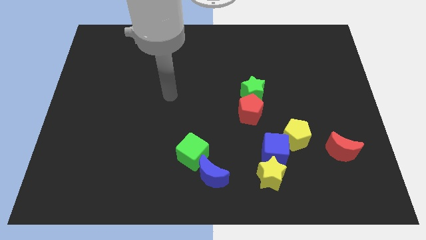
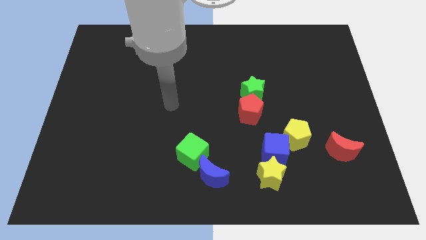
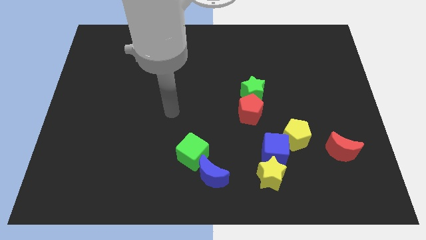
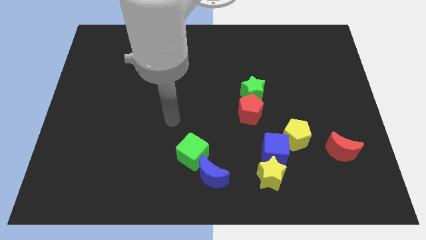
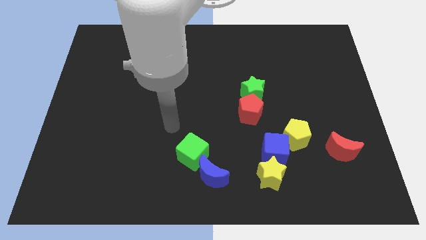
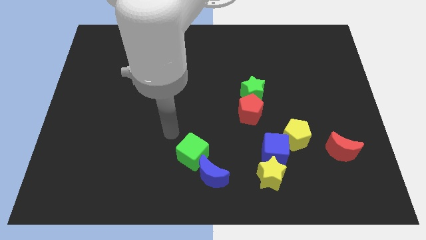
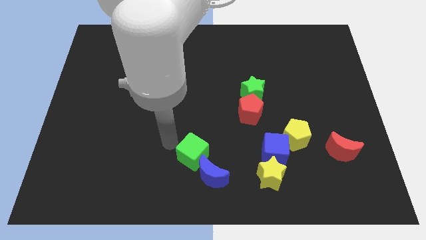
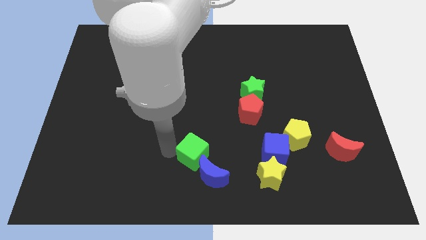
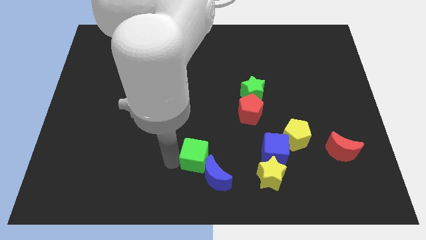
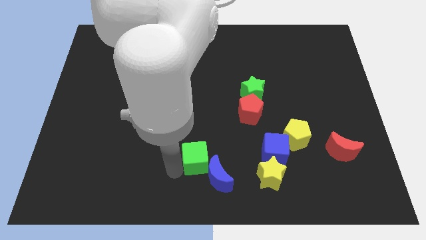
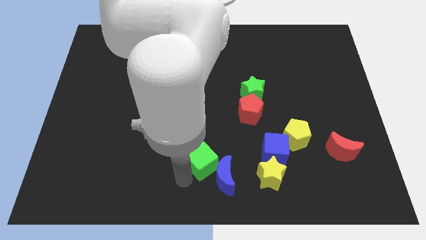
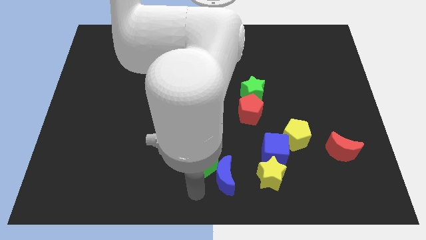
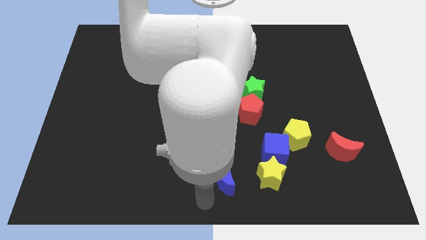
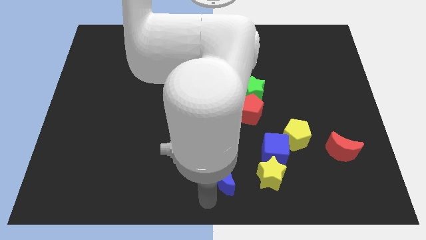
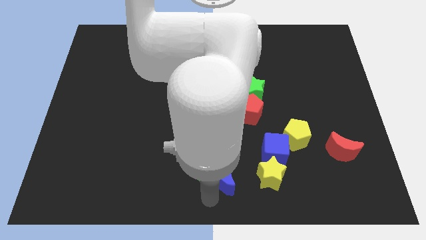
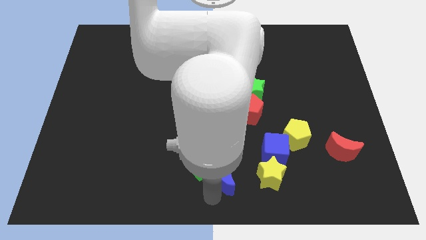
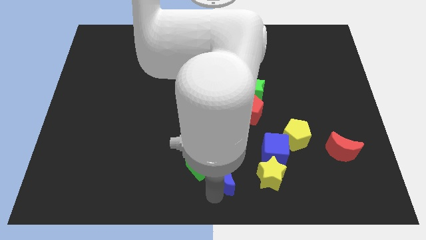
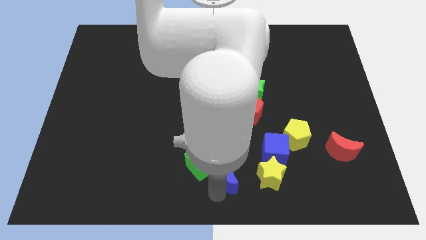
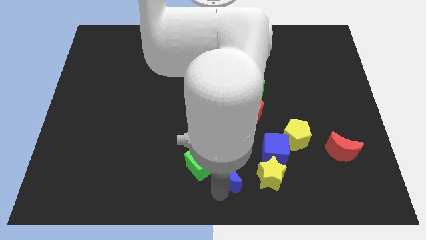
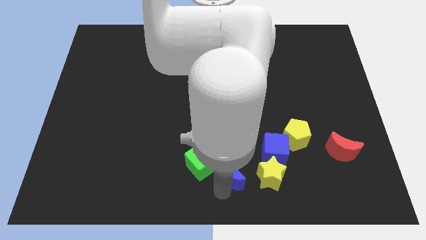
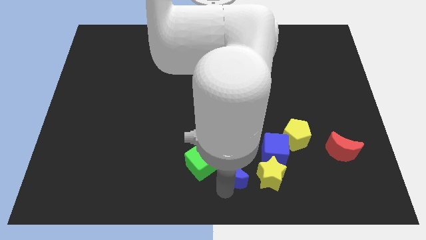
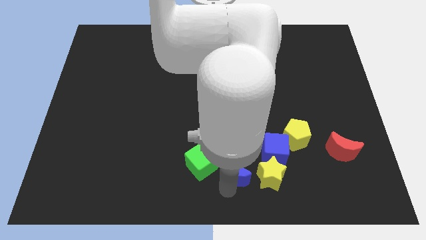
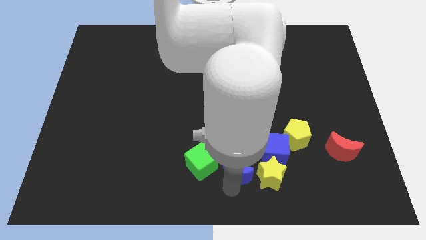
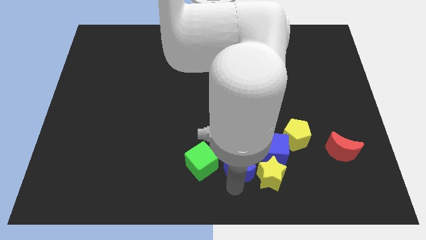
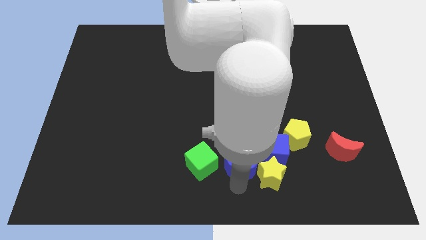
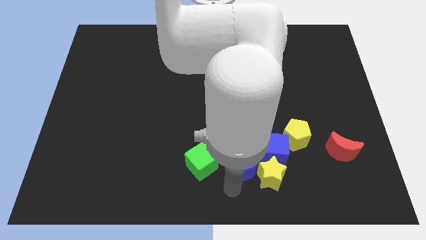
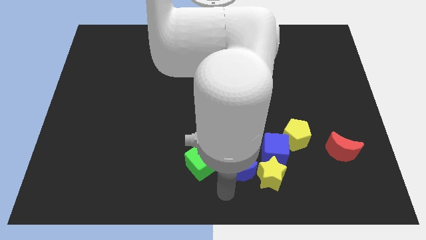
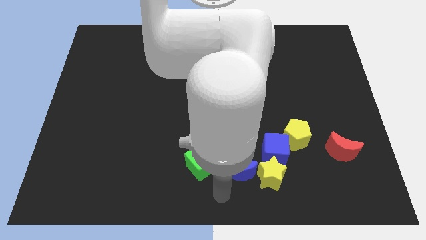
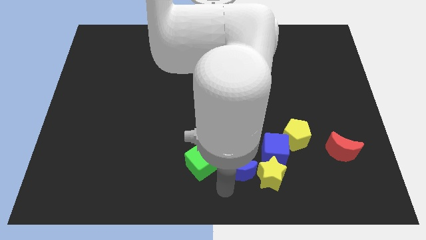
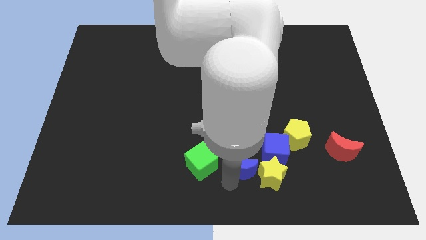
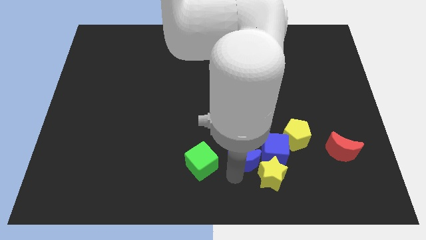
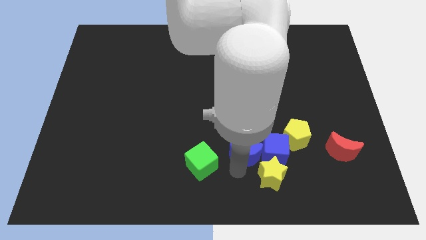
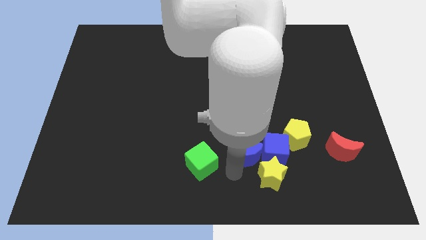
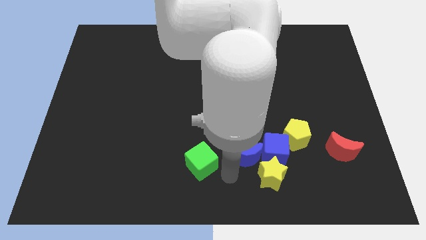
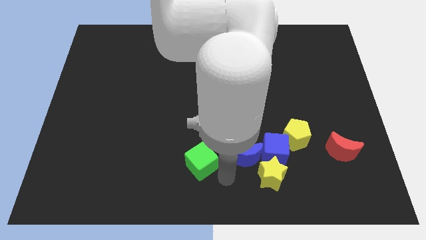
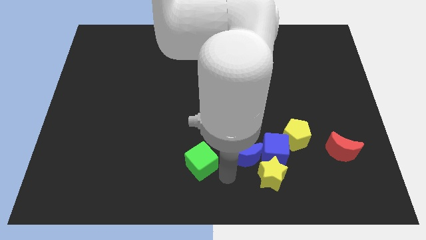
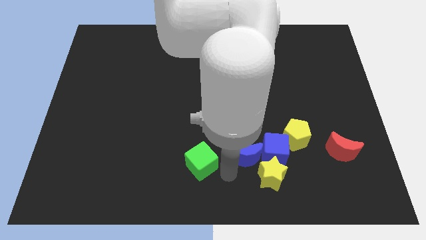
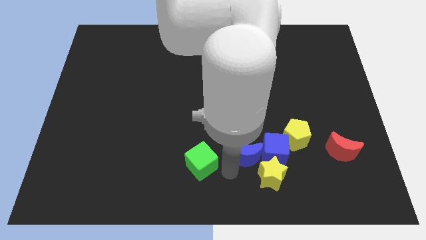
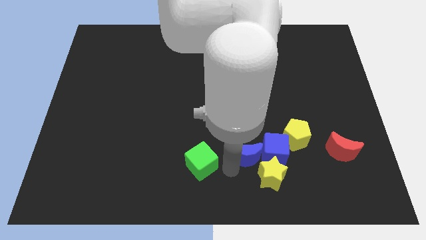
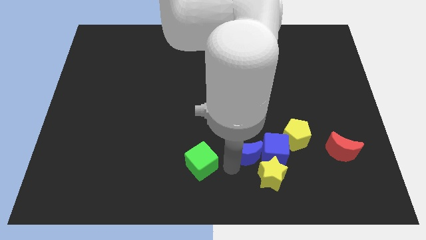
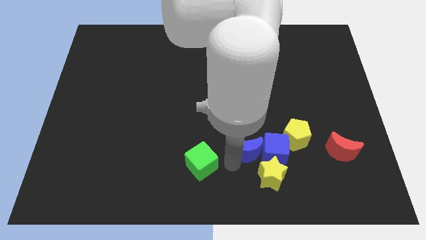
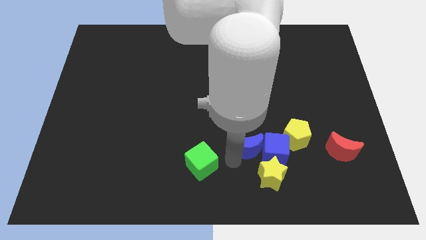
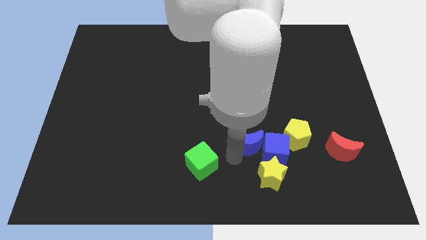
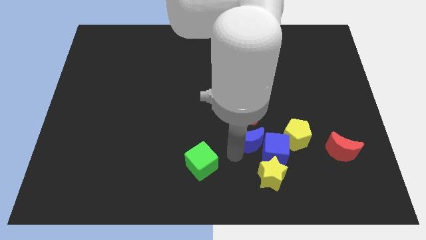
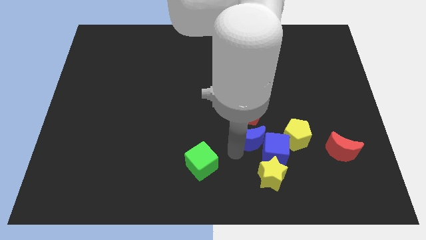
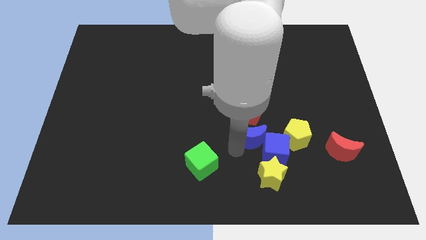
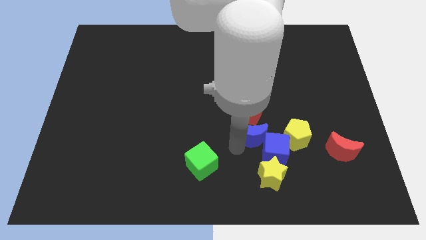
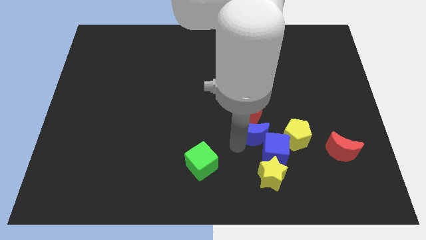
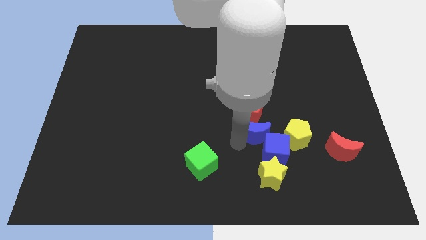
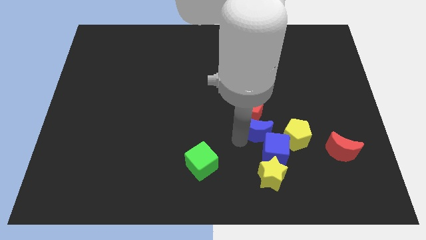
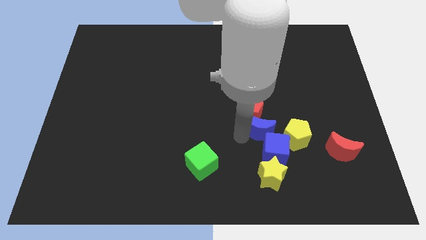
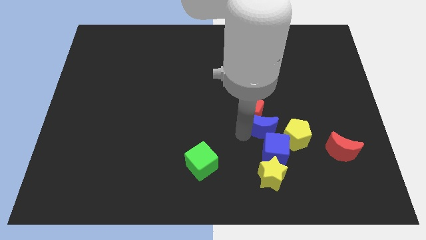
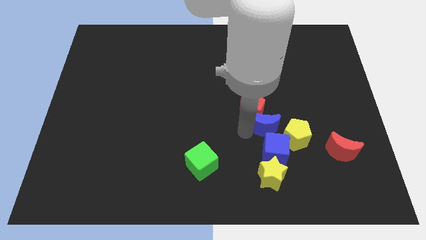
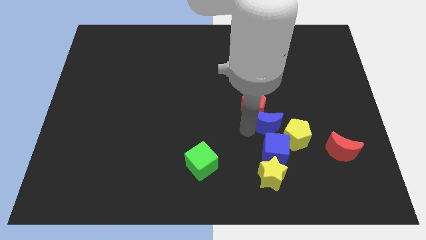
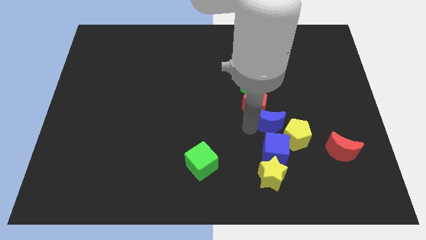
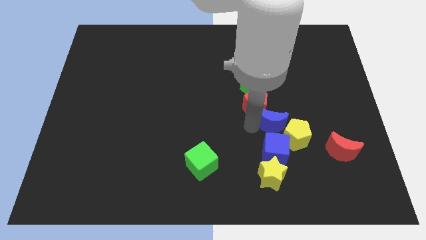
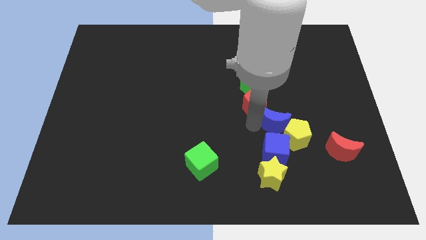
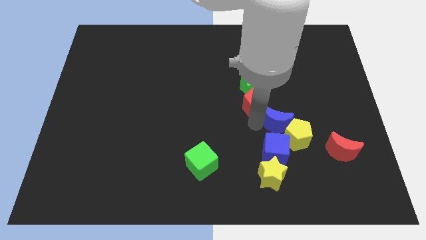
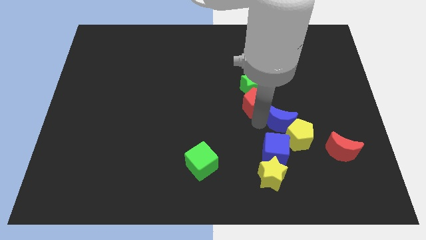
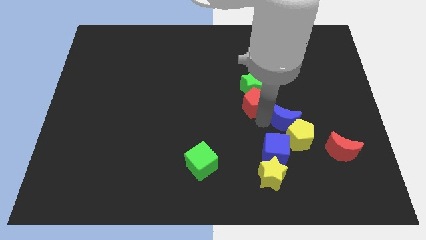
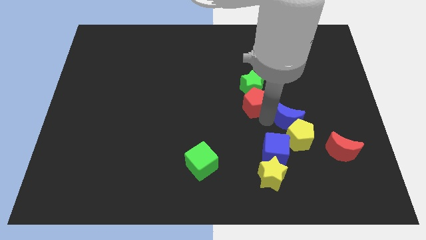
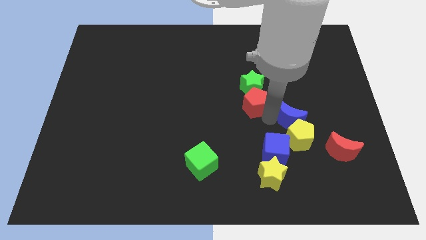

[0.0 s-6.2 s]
slide the blue moon to the top right of the yellow pentagon

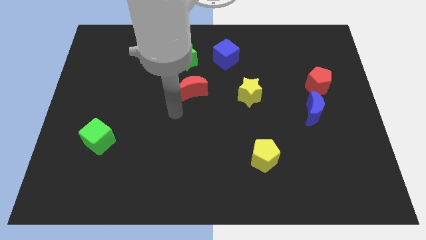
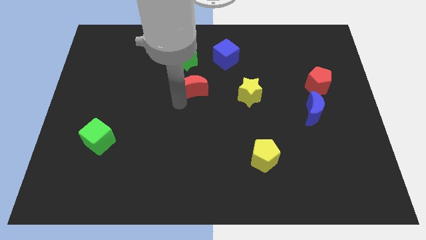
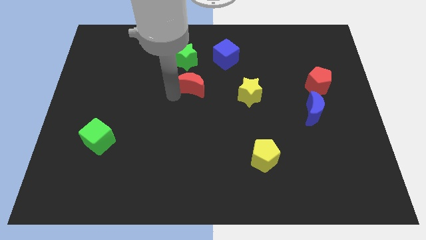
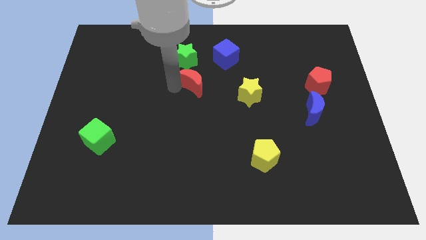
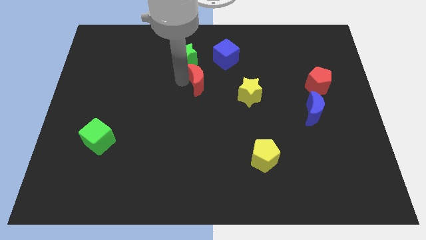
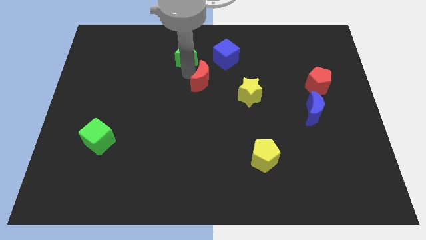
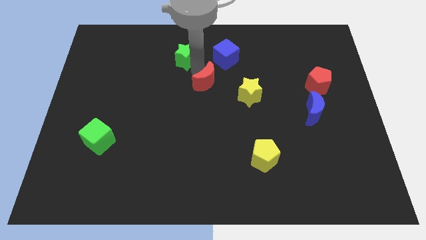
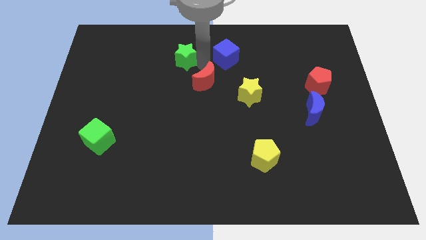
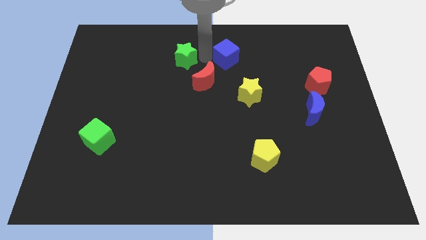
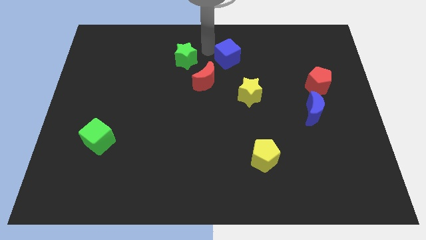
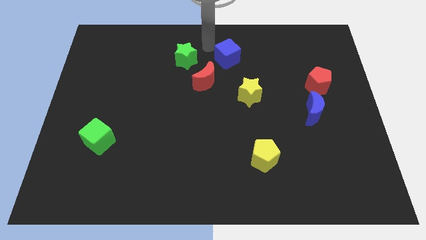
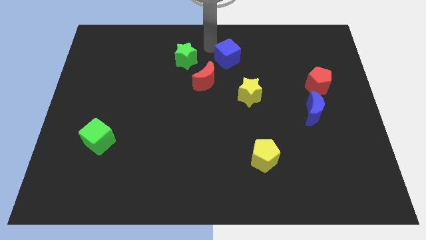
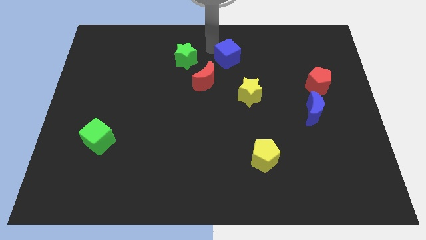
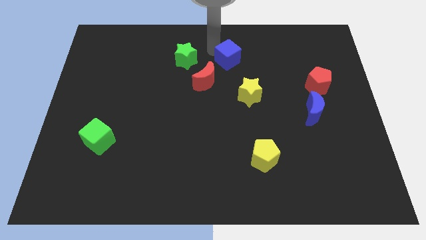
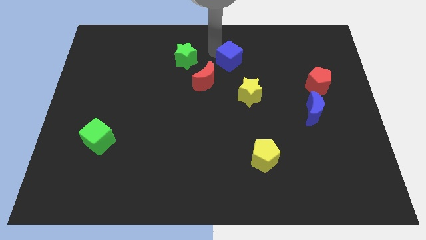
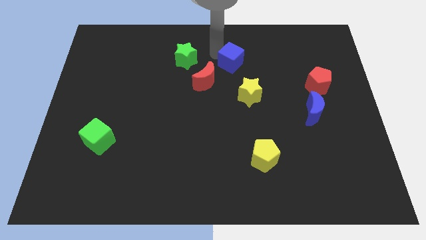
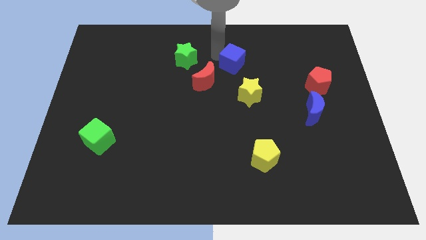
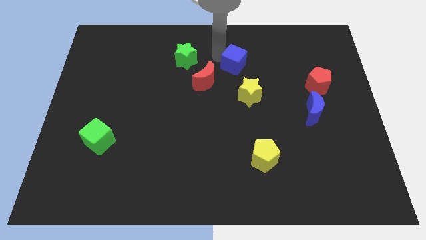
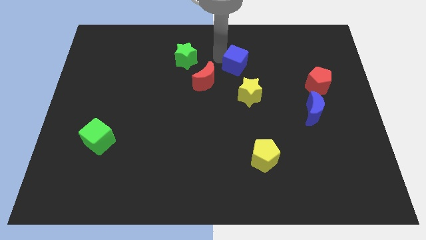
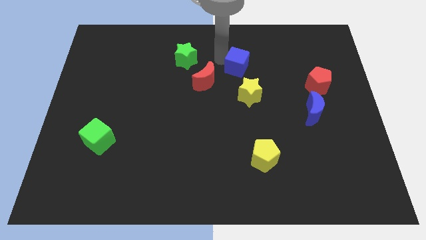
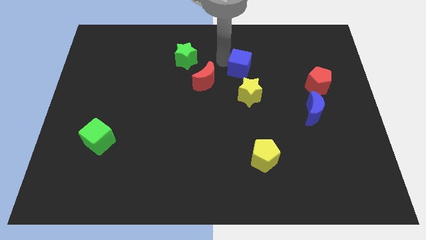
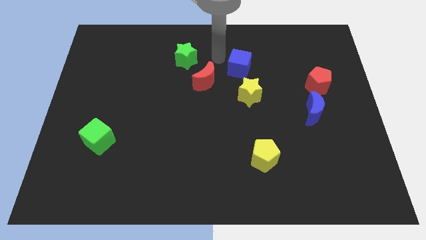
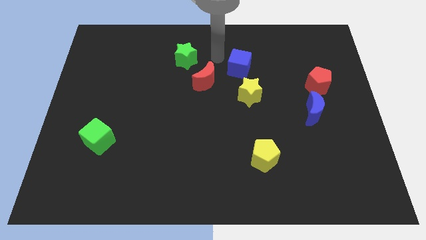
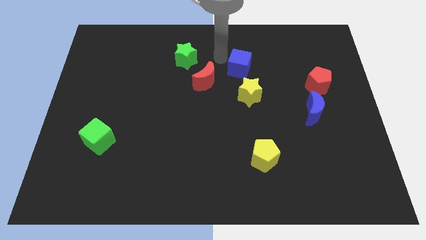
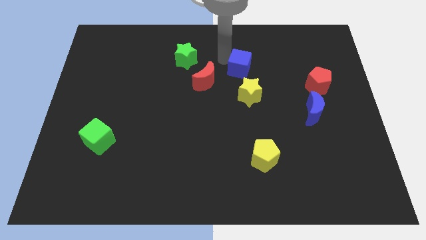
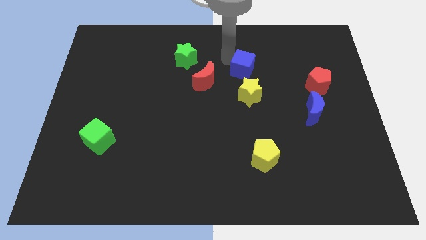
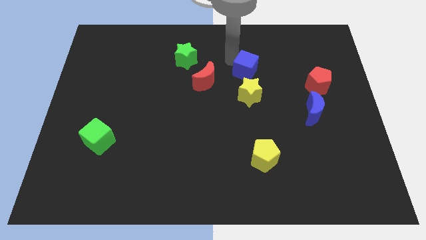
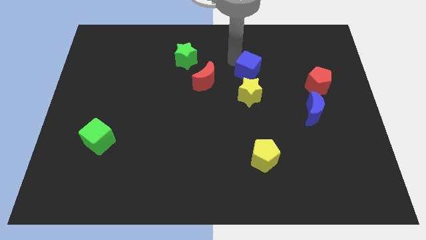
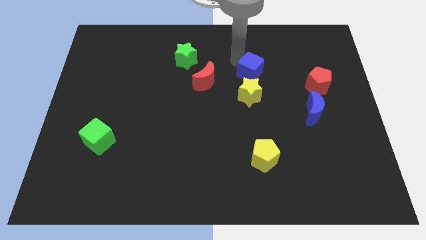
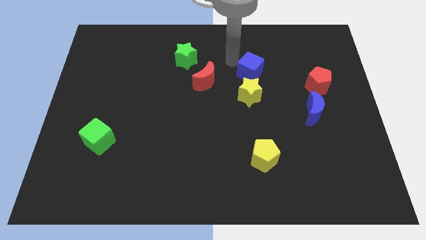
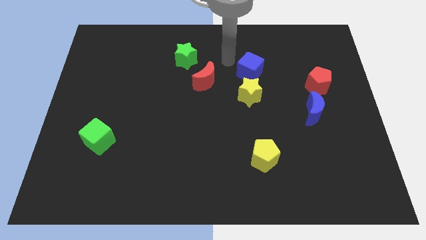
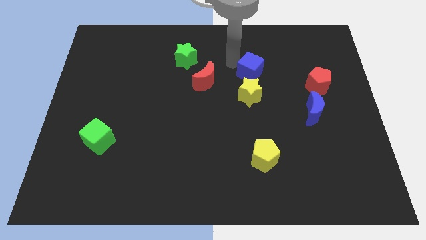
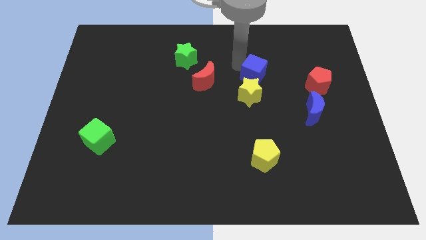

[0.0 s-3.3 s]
push the blue cube diagonally up and to the right of the yellow star
